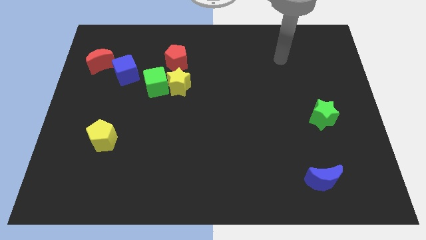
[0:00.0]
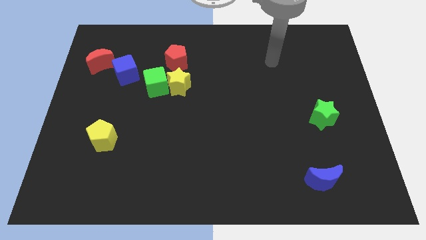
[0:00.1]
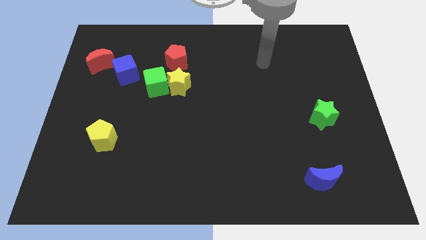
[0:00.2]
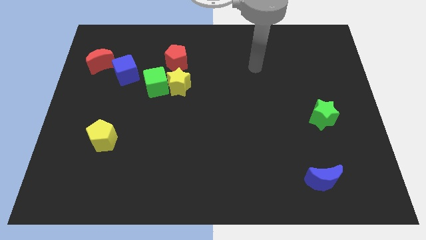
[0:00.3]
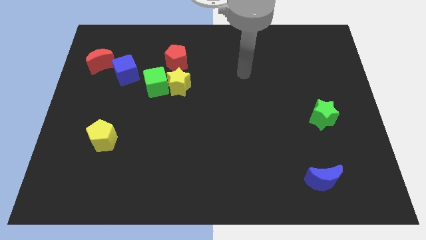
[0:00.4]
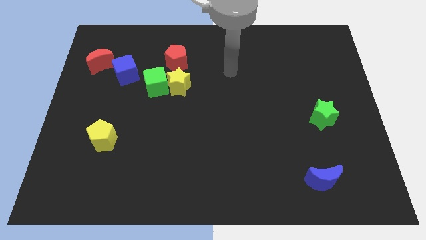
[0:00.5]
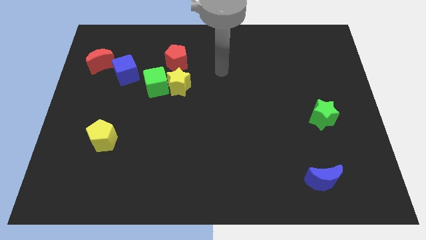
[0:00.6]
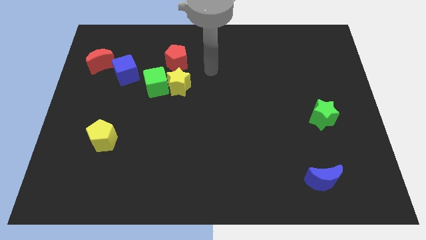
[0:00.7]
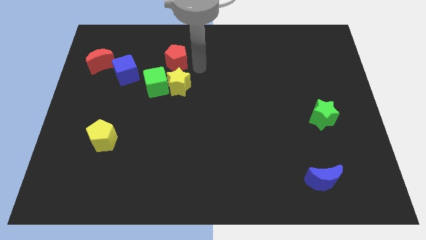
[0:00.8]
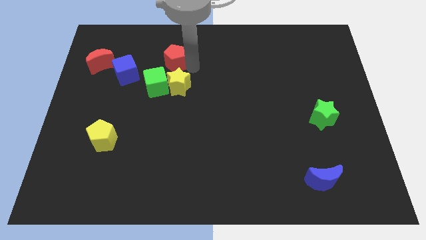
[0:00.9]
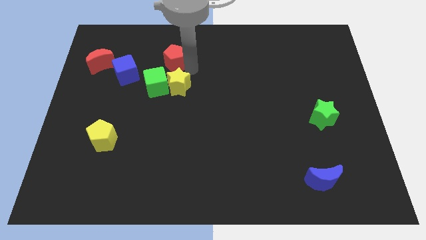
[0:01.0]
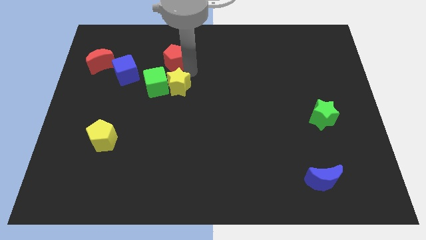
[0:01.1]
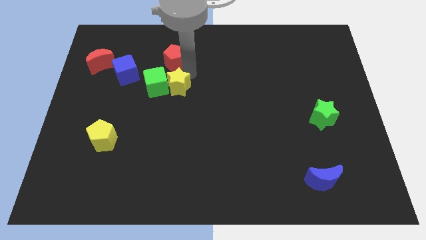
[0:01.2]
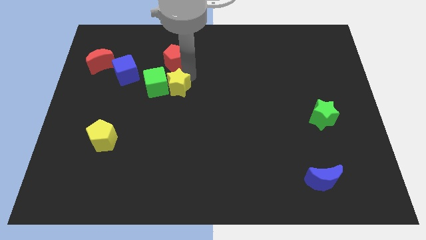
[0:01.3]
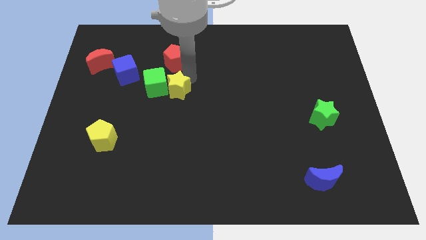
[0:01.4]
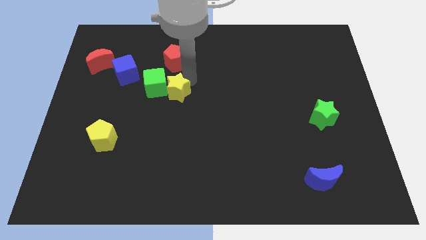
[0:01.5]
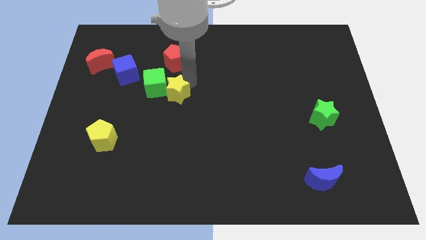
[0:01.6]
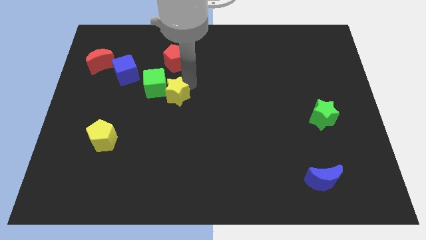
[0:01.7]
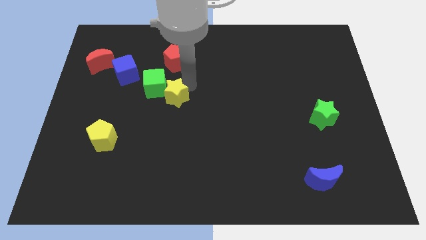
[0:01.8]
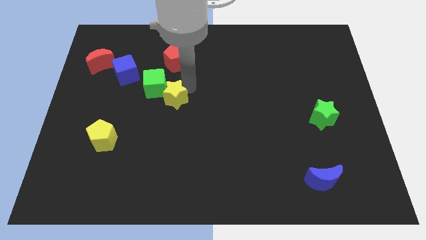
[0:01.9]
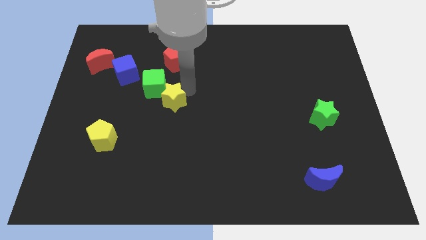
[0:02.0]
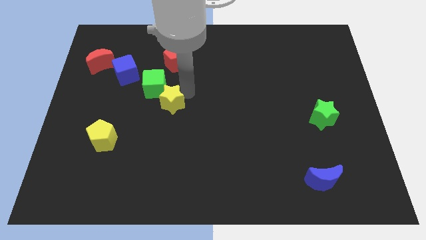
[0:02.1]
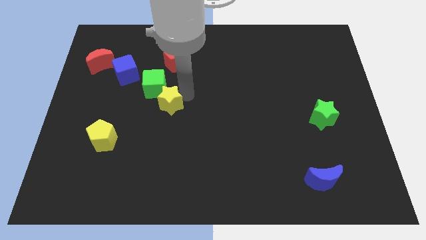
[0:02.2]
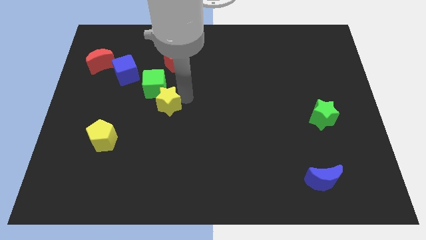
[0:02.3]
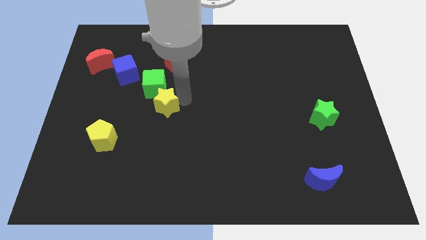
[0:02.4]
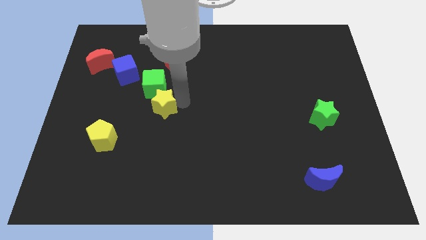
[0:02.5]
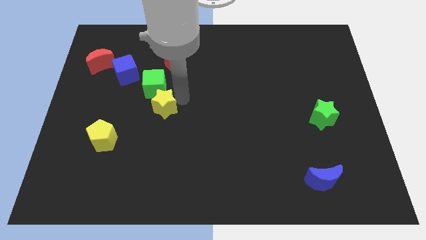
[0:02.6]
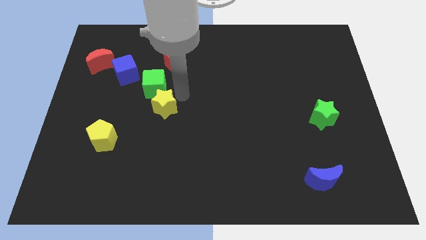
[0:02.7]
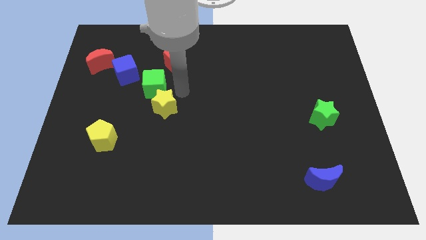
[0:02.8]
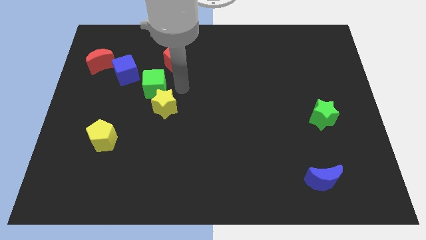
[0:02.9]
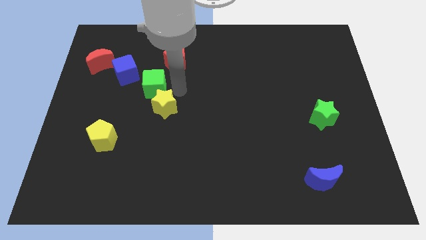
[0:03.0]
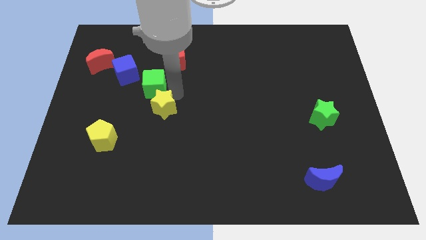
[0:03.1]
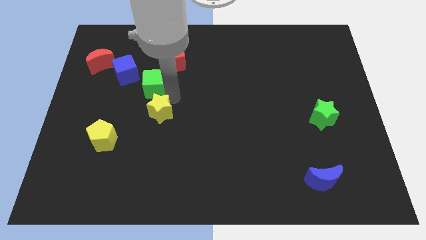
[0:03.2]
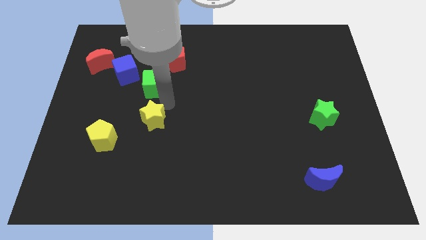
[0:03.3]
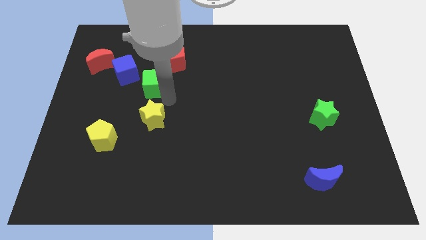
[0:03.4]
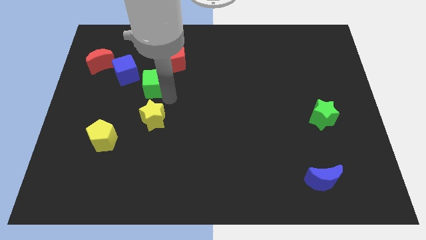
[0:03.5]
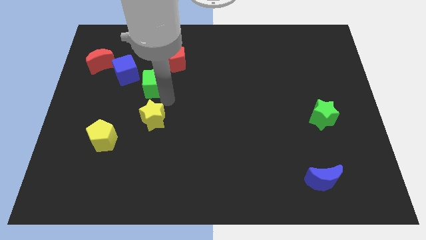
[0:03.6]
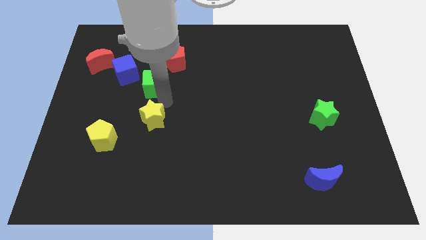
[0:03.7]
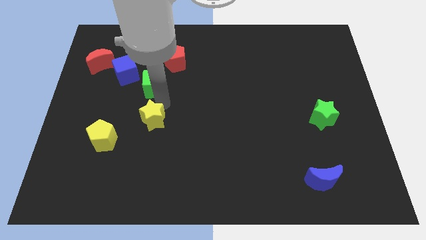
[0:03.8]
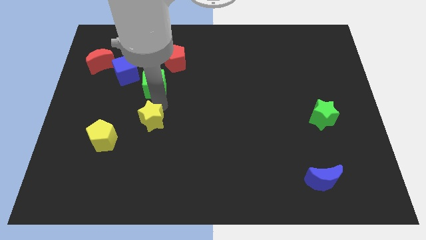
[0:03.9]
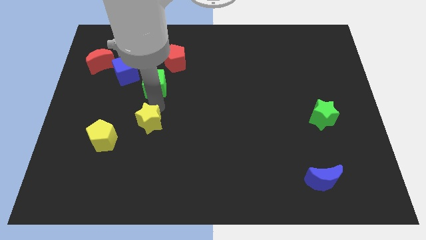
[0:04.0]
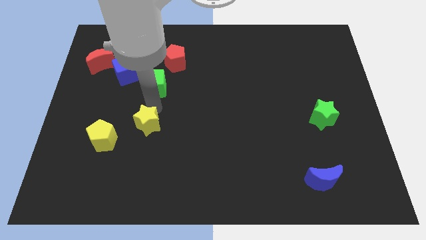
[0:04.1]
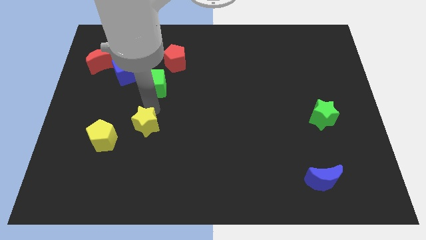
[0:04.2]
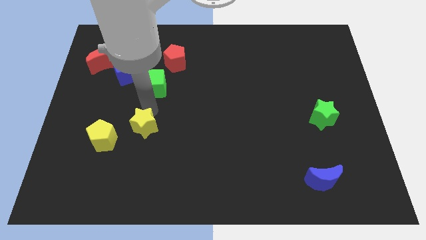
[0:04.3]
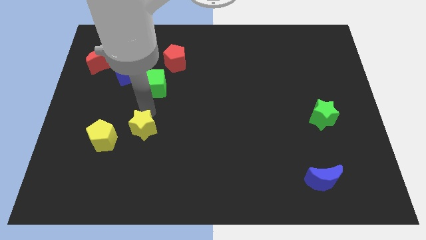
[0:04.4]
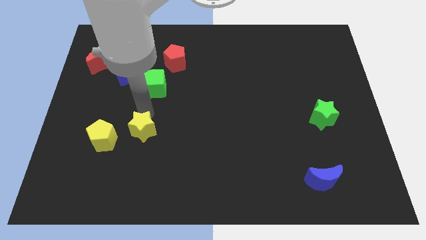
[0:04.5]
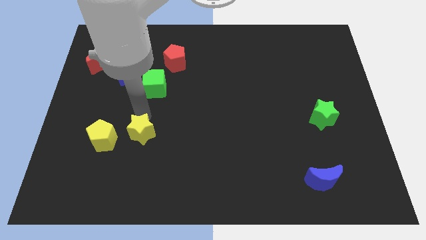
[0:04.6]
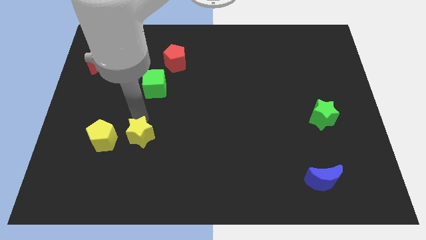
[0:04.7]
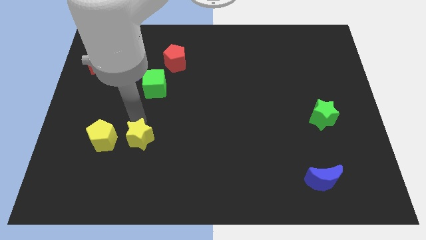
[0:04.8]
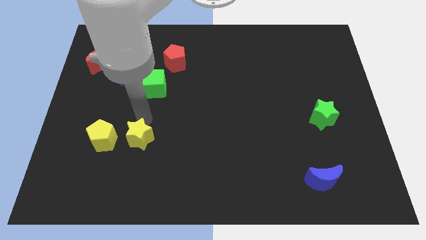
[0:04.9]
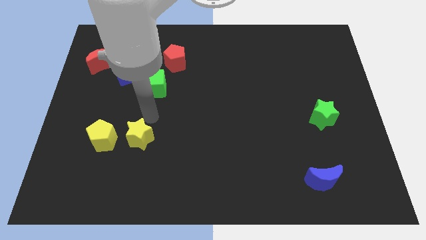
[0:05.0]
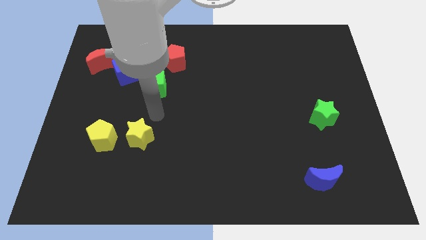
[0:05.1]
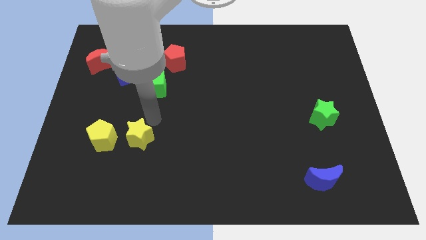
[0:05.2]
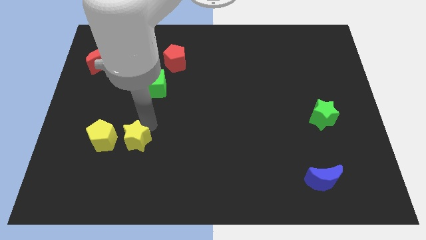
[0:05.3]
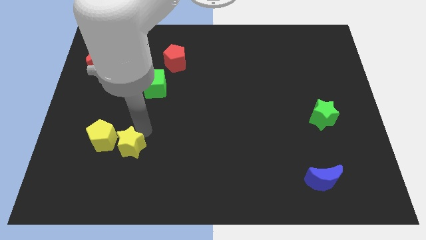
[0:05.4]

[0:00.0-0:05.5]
move the yellow star to the bottom right side of the yellow pentagon

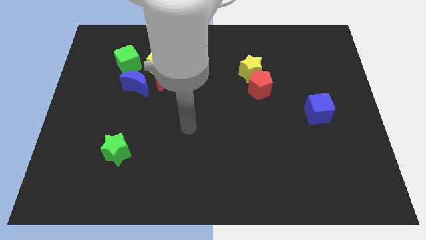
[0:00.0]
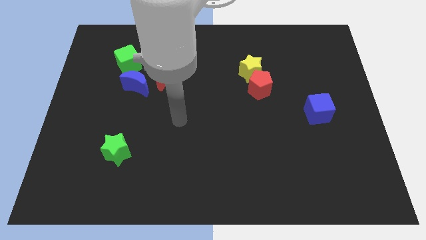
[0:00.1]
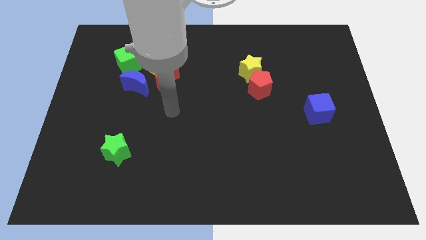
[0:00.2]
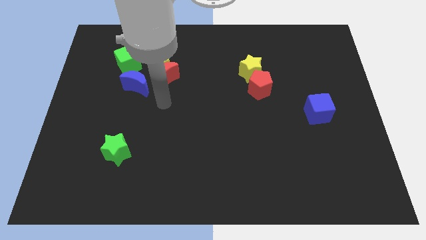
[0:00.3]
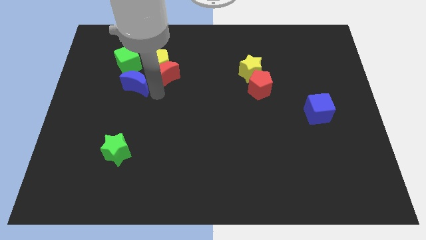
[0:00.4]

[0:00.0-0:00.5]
move the red moon just right of the yellow pentagon
